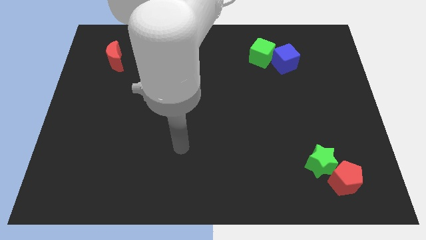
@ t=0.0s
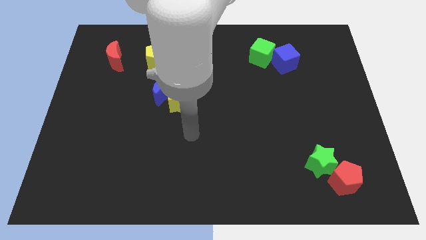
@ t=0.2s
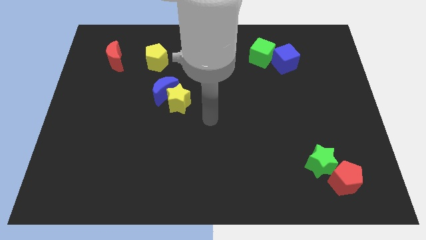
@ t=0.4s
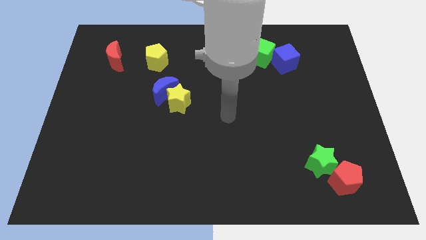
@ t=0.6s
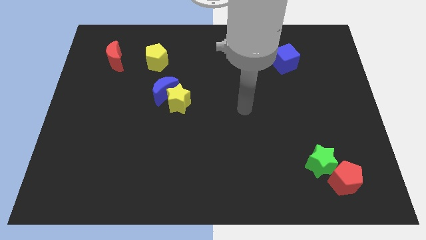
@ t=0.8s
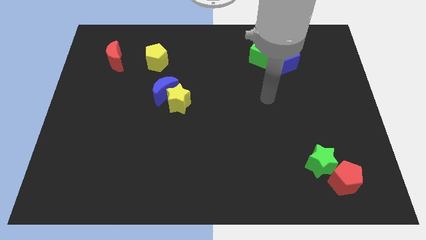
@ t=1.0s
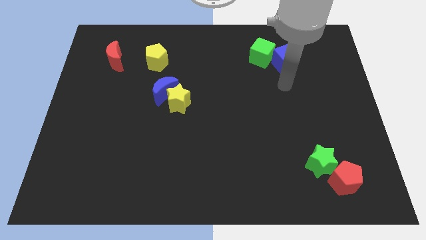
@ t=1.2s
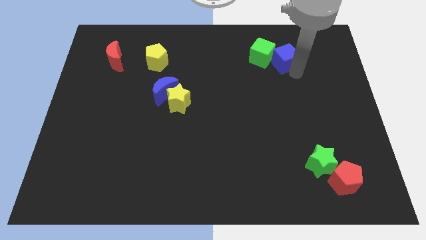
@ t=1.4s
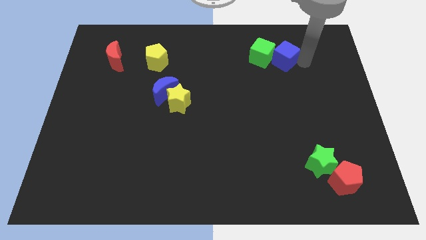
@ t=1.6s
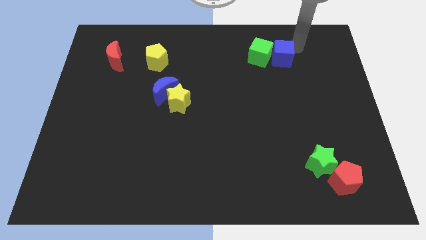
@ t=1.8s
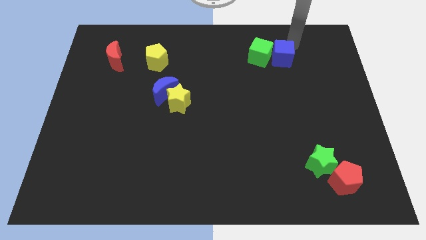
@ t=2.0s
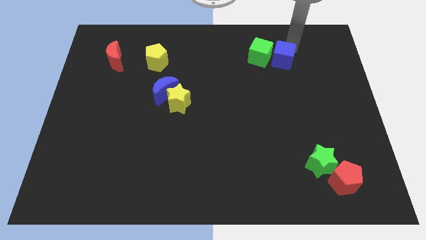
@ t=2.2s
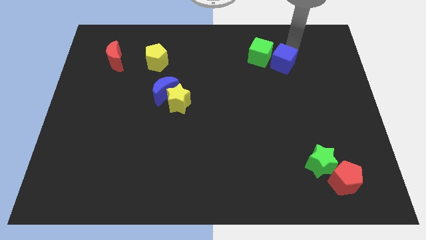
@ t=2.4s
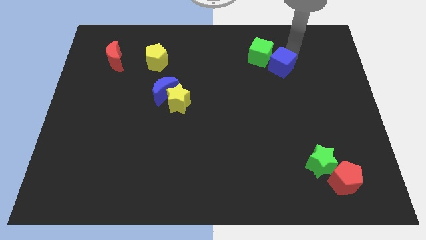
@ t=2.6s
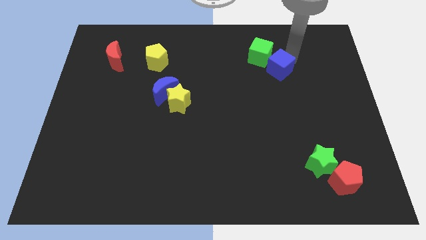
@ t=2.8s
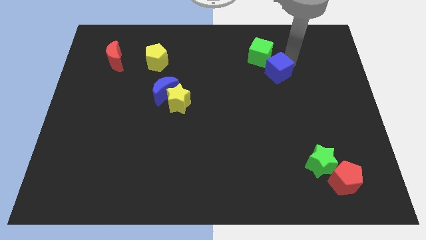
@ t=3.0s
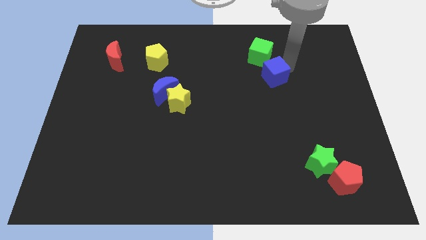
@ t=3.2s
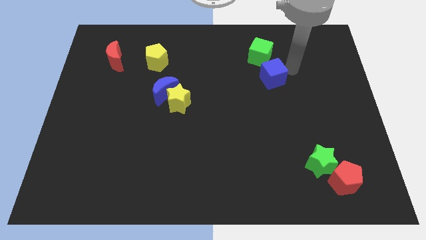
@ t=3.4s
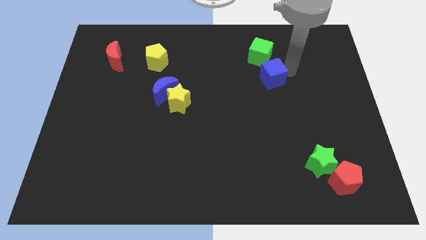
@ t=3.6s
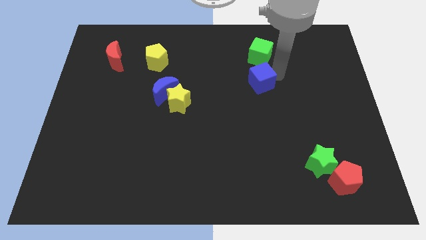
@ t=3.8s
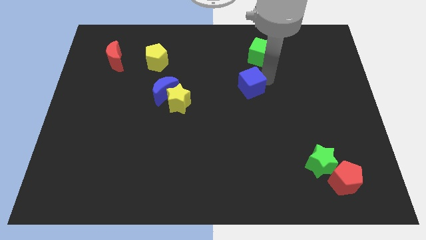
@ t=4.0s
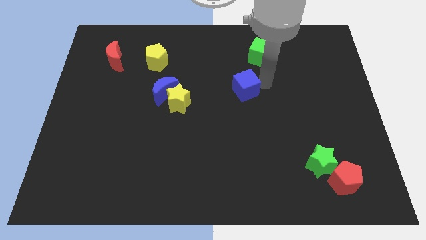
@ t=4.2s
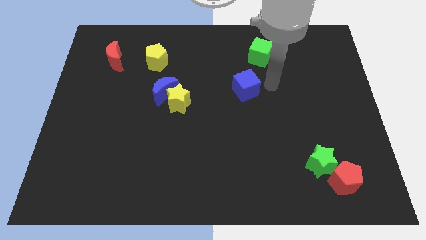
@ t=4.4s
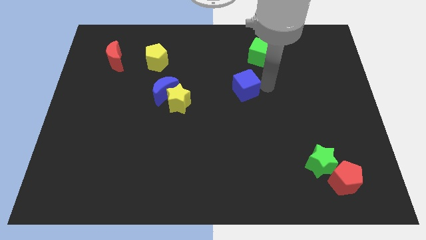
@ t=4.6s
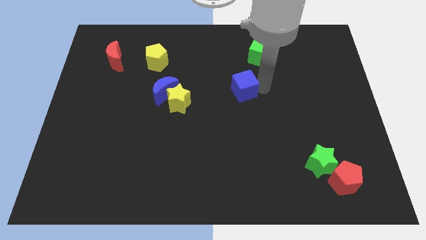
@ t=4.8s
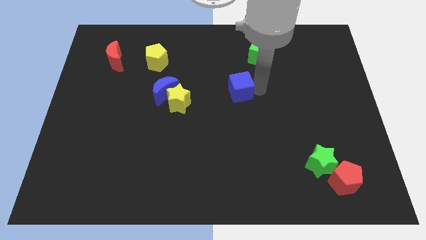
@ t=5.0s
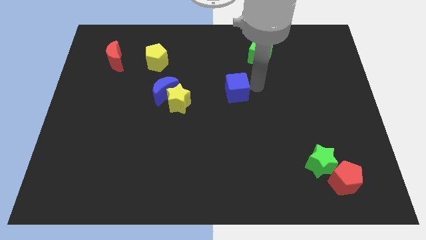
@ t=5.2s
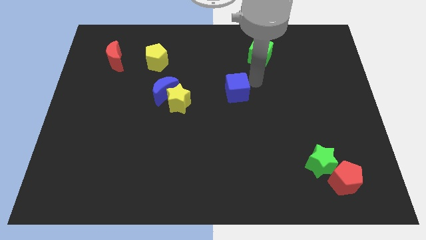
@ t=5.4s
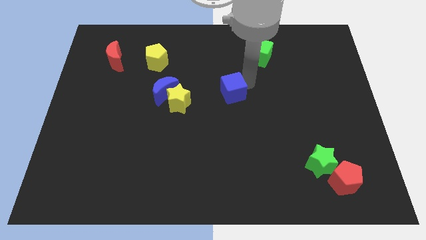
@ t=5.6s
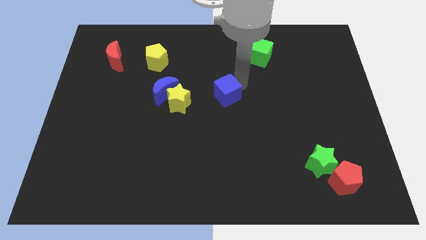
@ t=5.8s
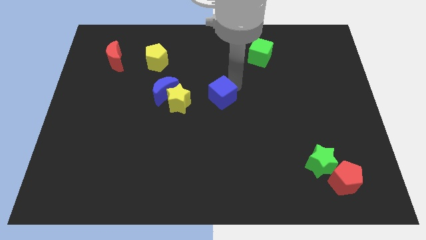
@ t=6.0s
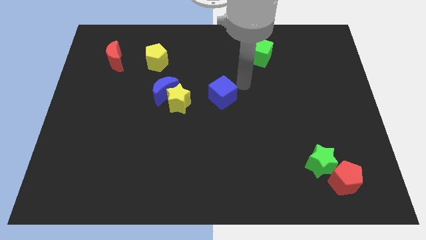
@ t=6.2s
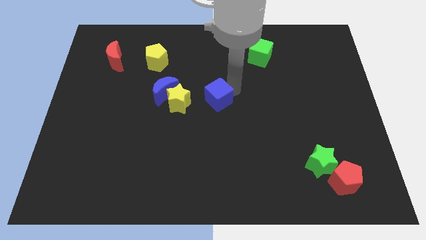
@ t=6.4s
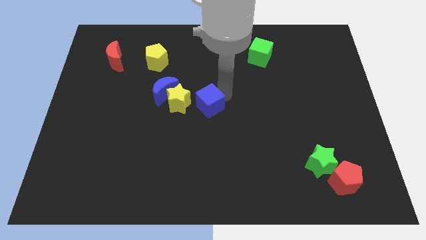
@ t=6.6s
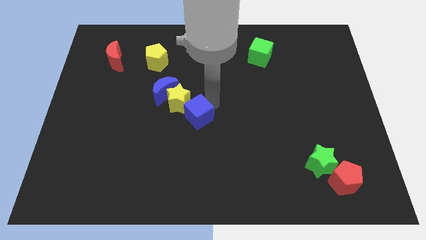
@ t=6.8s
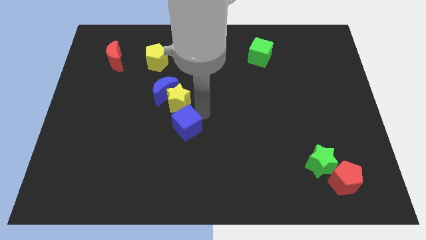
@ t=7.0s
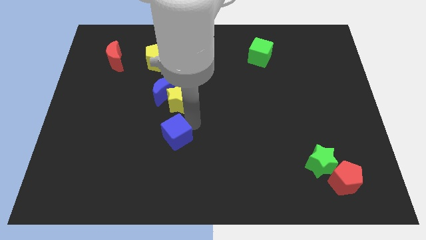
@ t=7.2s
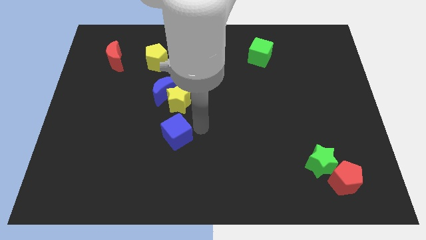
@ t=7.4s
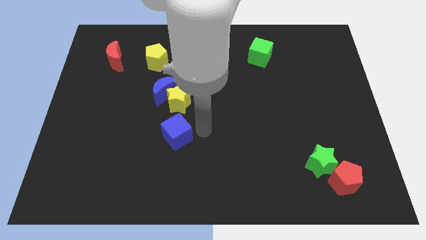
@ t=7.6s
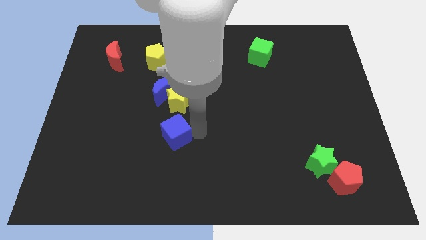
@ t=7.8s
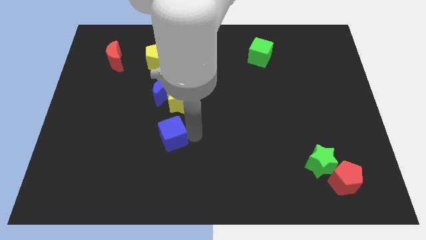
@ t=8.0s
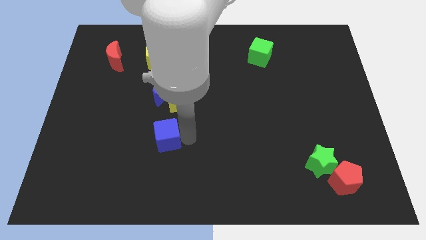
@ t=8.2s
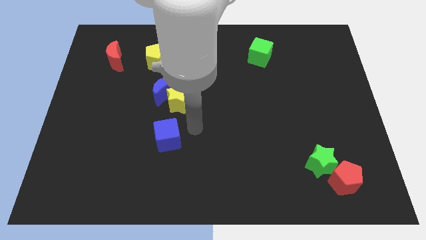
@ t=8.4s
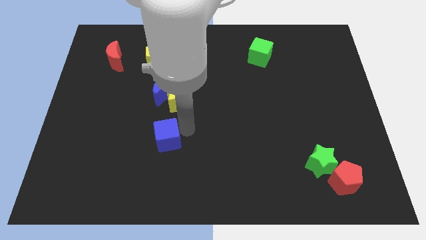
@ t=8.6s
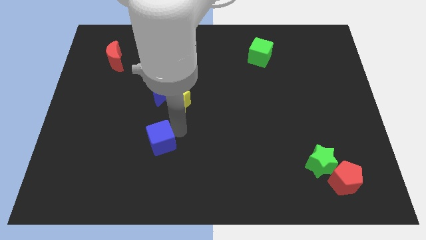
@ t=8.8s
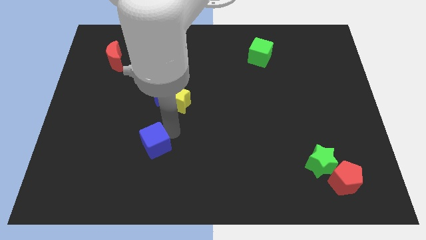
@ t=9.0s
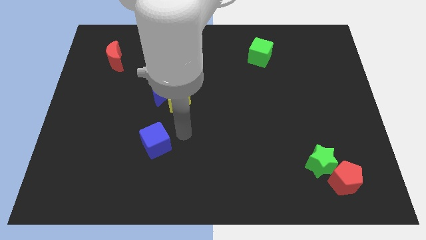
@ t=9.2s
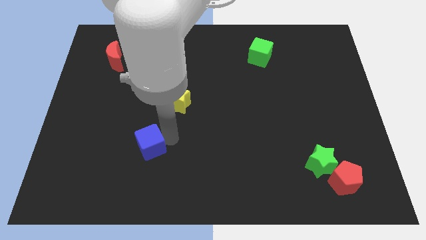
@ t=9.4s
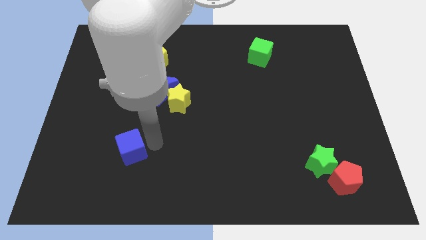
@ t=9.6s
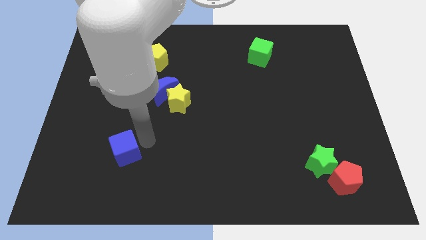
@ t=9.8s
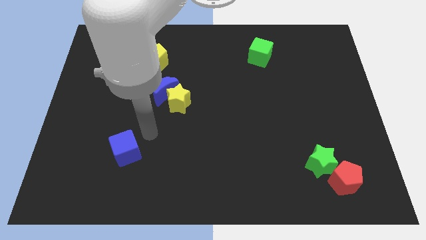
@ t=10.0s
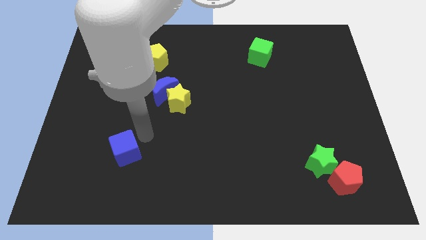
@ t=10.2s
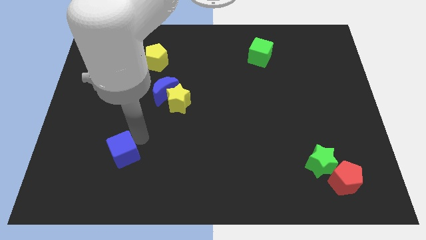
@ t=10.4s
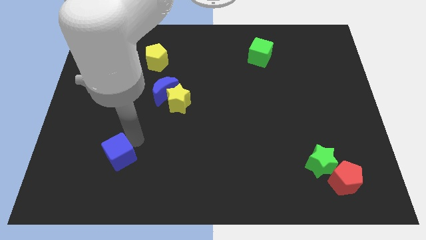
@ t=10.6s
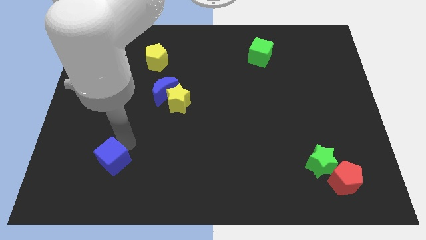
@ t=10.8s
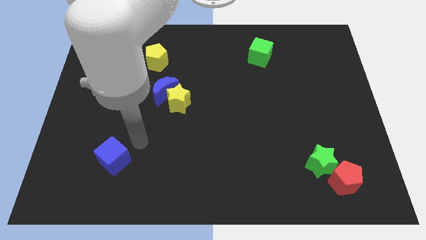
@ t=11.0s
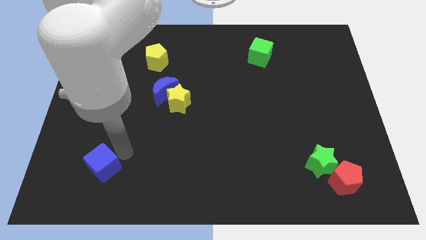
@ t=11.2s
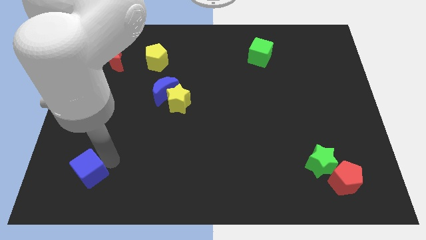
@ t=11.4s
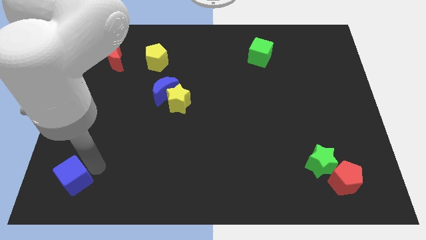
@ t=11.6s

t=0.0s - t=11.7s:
push the blue cube to the bottom left of the board

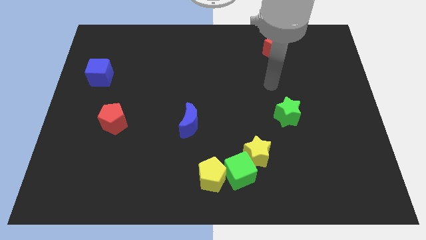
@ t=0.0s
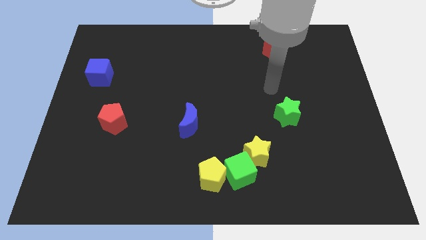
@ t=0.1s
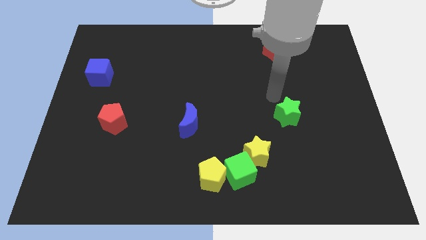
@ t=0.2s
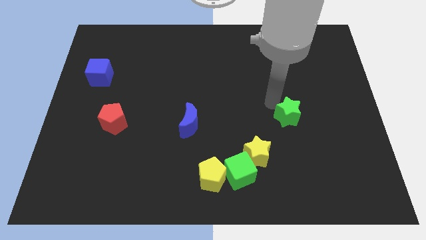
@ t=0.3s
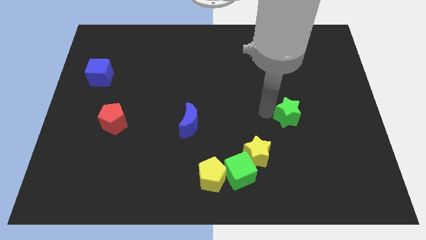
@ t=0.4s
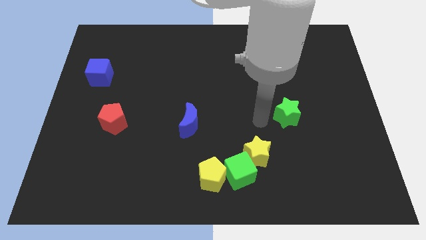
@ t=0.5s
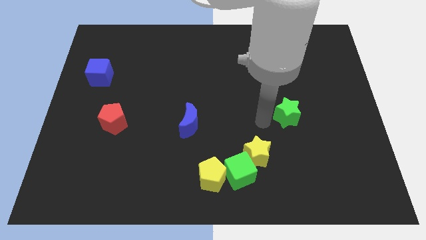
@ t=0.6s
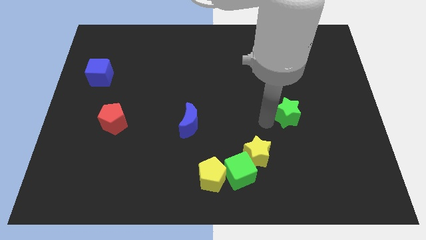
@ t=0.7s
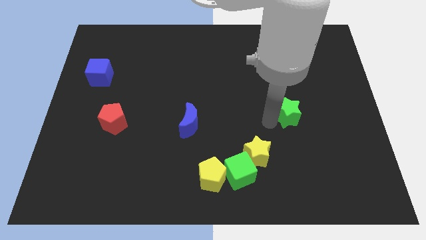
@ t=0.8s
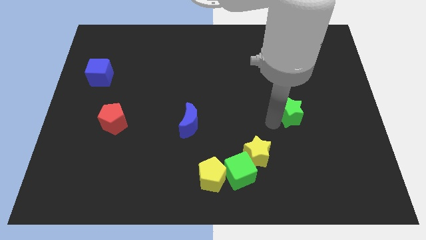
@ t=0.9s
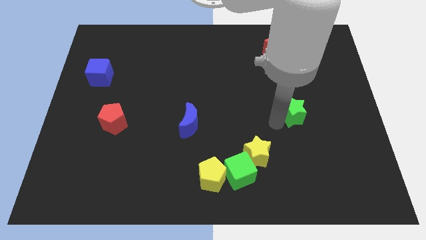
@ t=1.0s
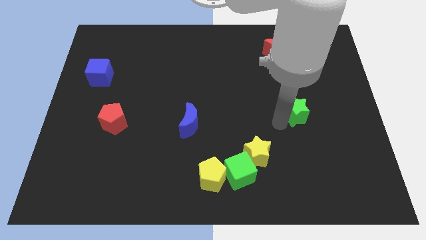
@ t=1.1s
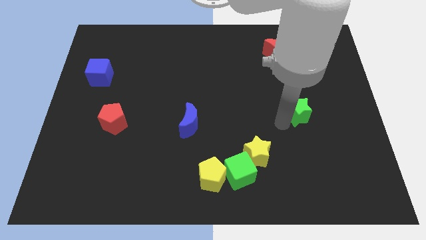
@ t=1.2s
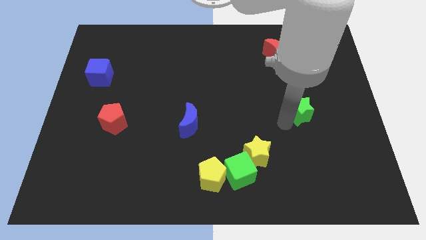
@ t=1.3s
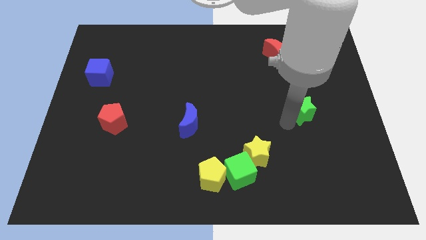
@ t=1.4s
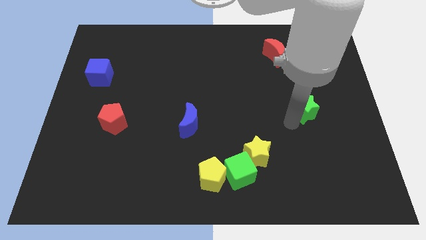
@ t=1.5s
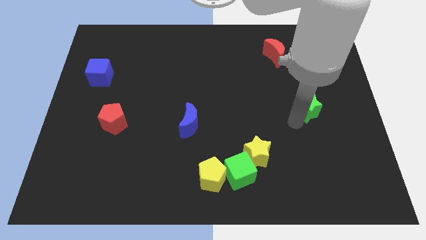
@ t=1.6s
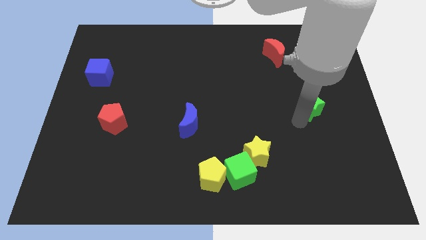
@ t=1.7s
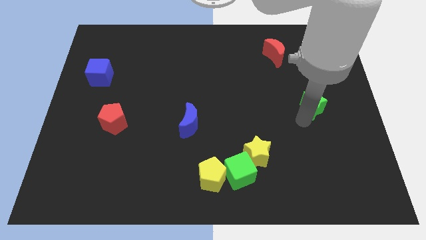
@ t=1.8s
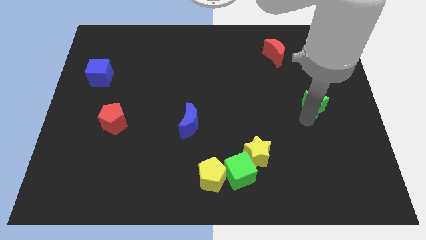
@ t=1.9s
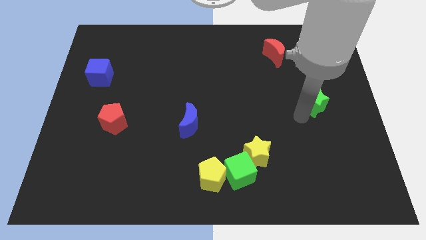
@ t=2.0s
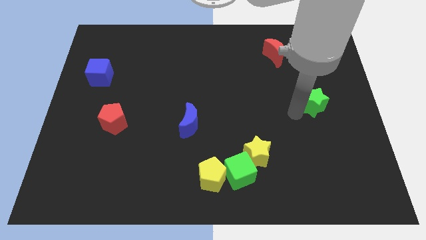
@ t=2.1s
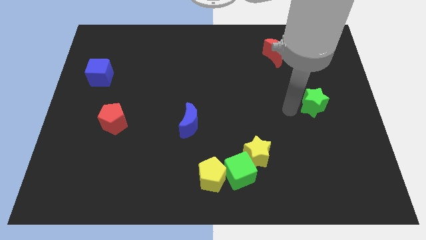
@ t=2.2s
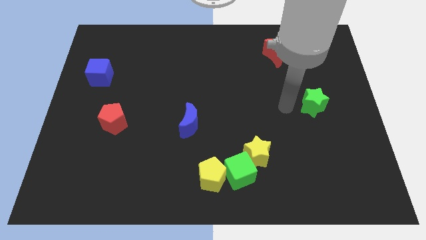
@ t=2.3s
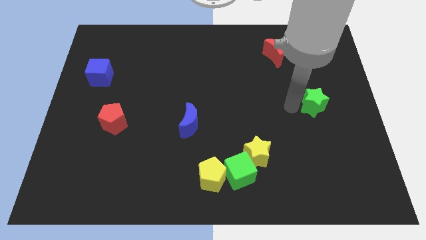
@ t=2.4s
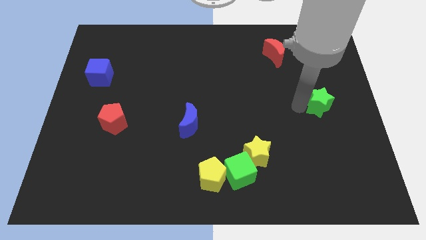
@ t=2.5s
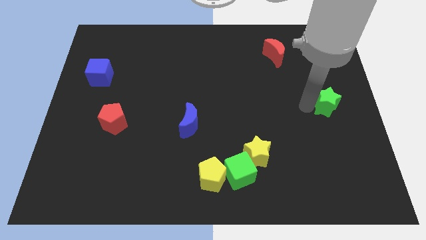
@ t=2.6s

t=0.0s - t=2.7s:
slide the green star to the center right
